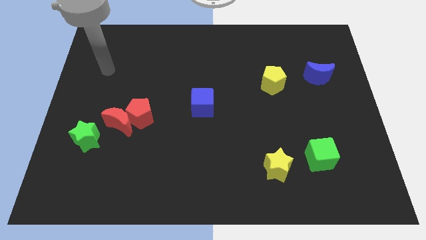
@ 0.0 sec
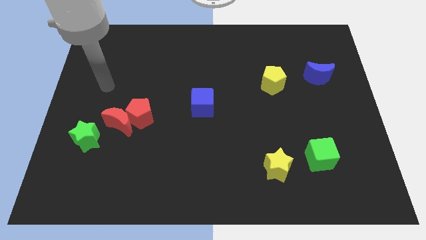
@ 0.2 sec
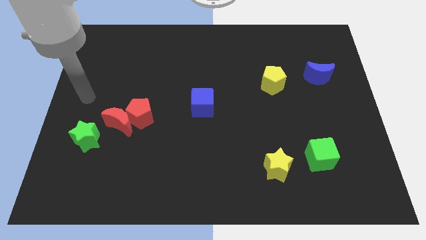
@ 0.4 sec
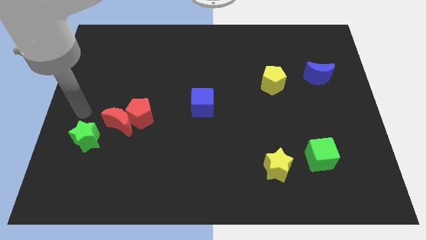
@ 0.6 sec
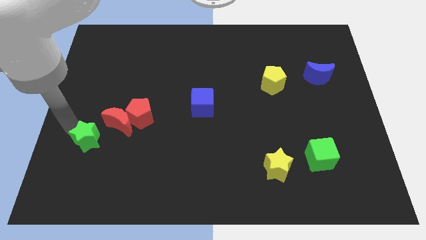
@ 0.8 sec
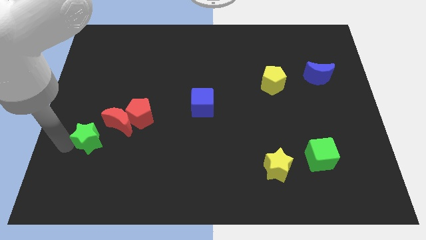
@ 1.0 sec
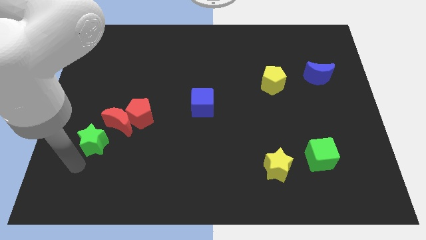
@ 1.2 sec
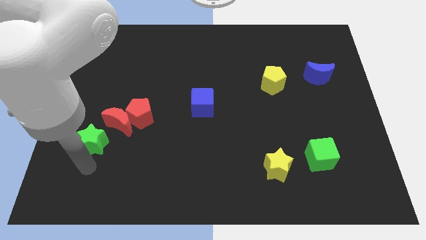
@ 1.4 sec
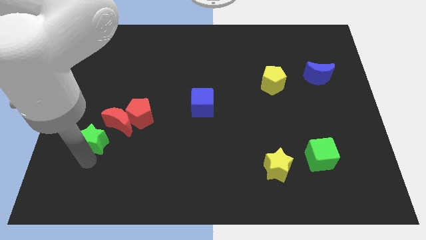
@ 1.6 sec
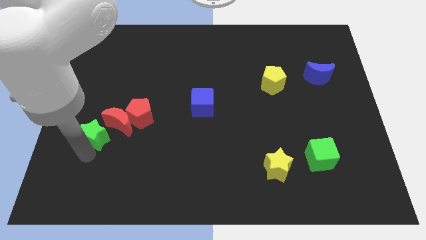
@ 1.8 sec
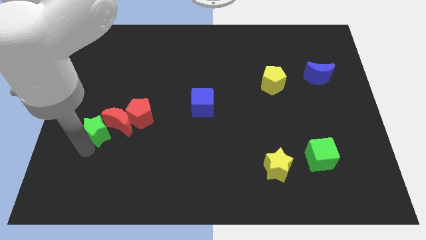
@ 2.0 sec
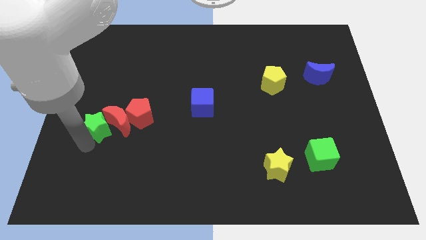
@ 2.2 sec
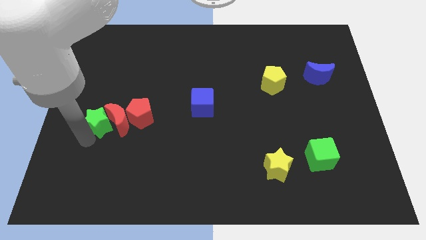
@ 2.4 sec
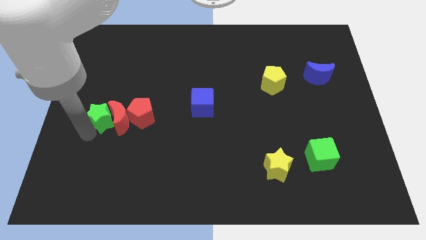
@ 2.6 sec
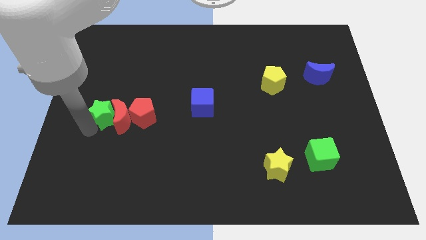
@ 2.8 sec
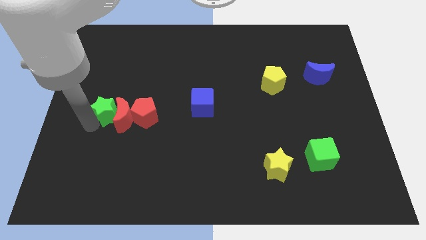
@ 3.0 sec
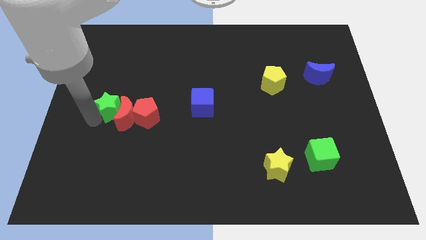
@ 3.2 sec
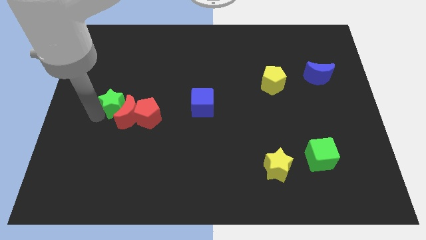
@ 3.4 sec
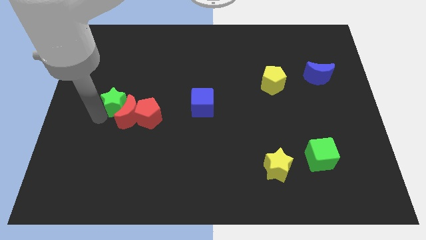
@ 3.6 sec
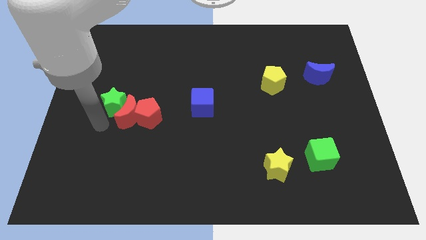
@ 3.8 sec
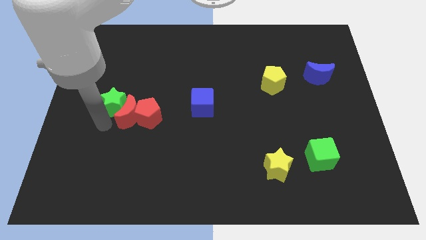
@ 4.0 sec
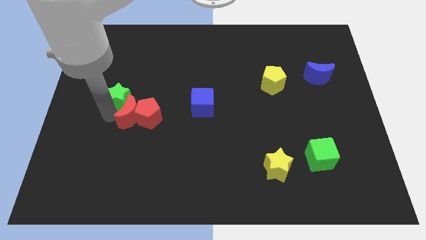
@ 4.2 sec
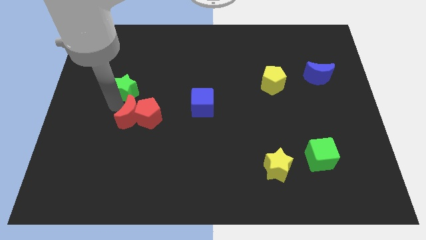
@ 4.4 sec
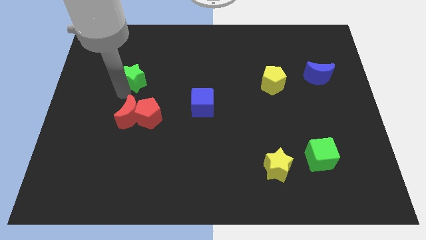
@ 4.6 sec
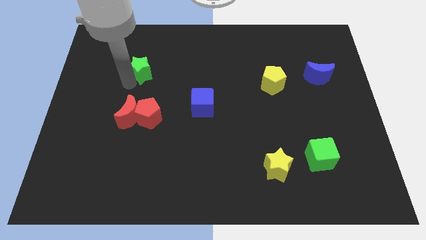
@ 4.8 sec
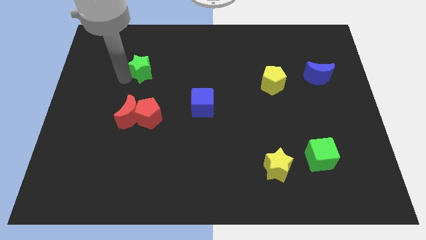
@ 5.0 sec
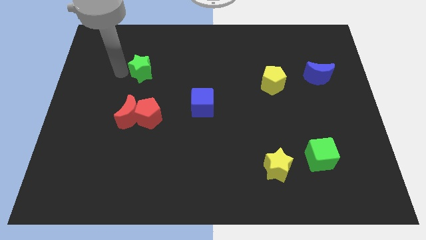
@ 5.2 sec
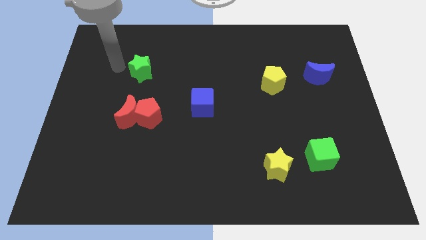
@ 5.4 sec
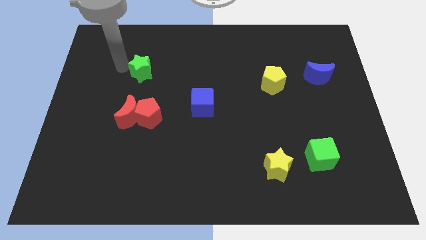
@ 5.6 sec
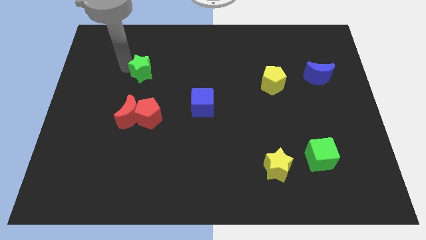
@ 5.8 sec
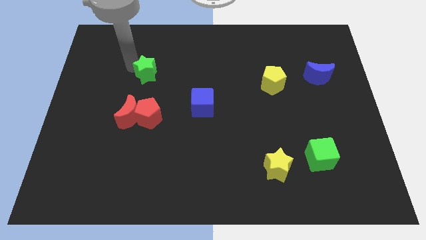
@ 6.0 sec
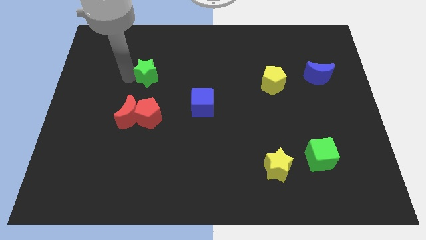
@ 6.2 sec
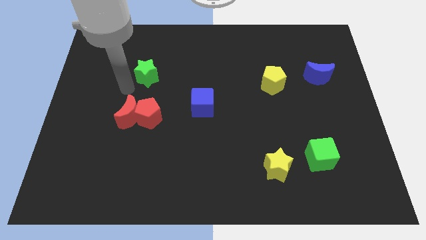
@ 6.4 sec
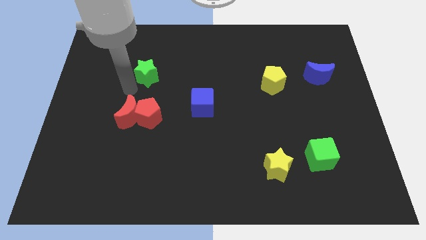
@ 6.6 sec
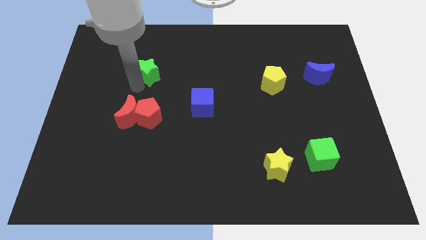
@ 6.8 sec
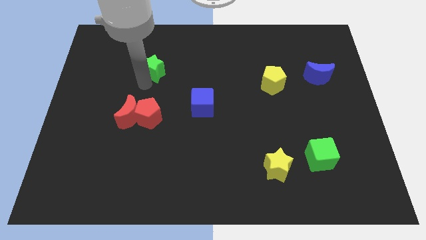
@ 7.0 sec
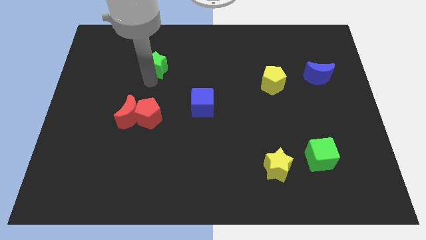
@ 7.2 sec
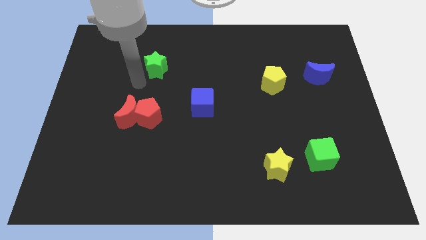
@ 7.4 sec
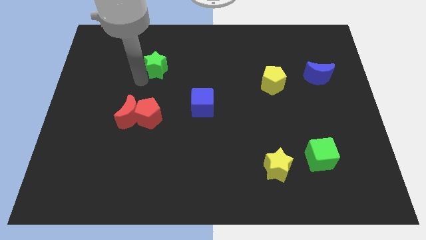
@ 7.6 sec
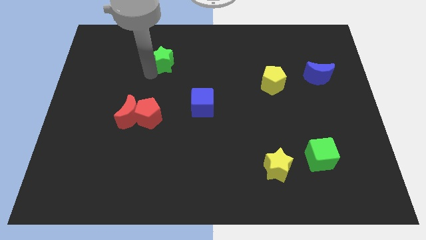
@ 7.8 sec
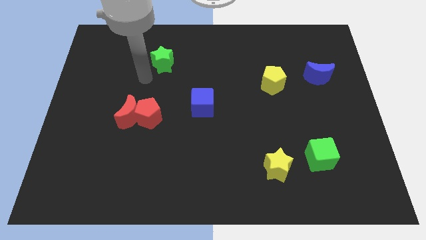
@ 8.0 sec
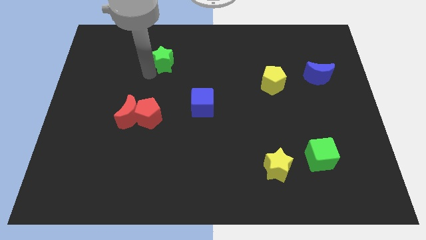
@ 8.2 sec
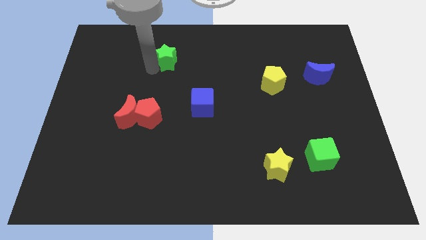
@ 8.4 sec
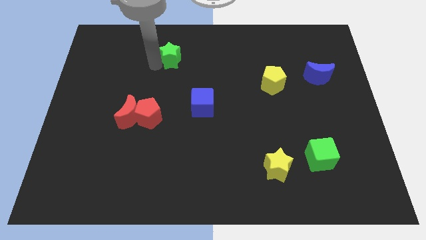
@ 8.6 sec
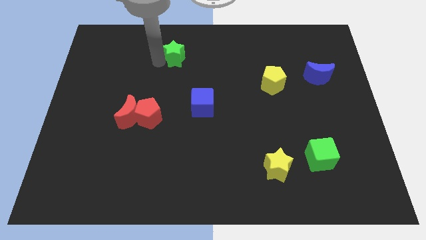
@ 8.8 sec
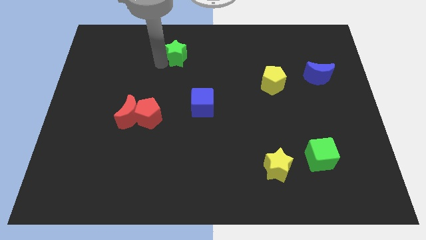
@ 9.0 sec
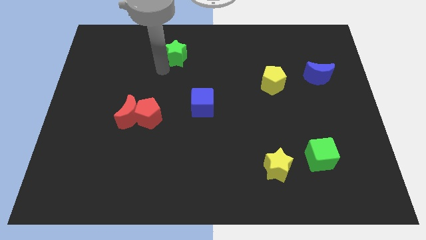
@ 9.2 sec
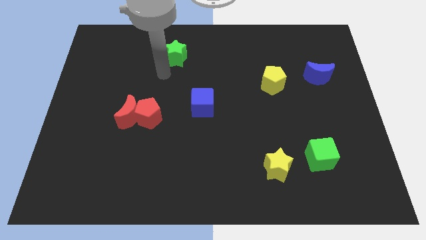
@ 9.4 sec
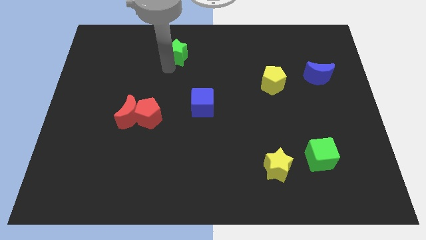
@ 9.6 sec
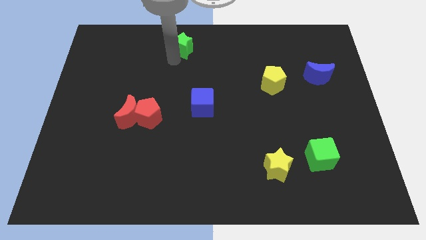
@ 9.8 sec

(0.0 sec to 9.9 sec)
put the green star to the top

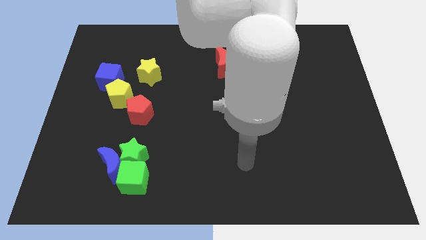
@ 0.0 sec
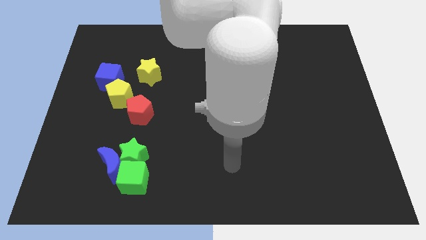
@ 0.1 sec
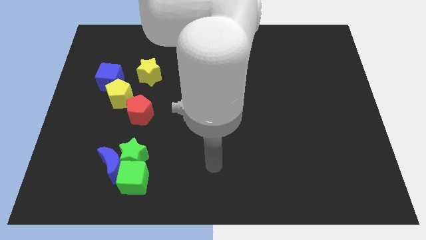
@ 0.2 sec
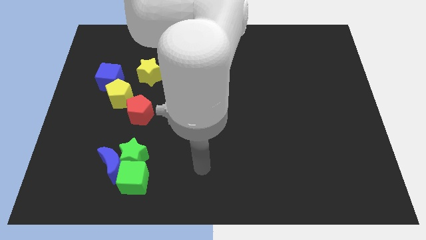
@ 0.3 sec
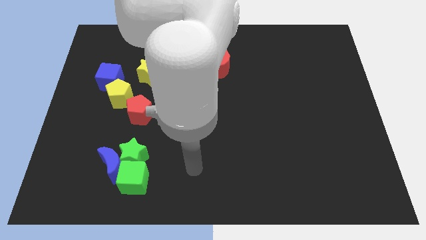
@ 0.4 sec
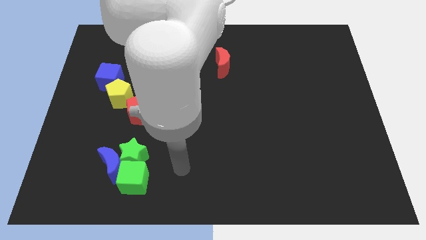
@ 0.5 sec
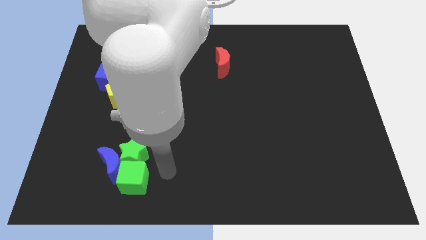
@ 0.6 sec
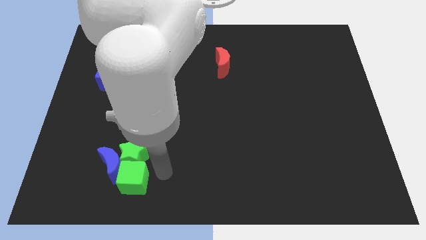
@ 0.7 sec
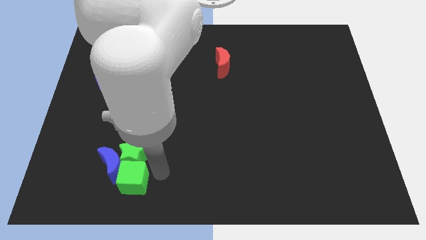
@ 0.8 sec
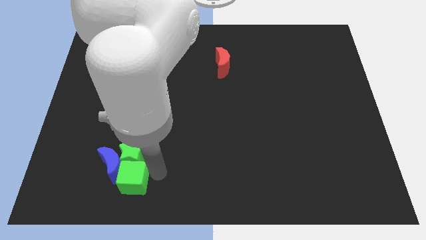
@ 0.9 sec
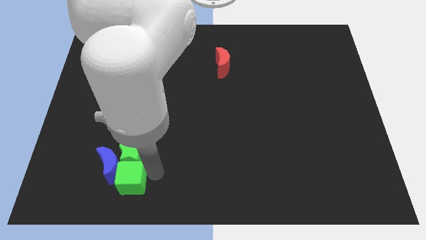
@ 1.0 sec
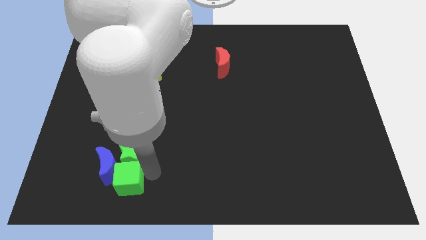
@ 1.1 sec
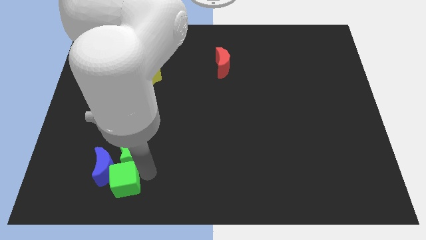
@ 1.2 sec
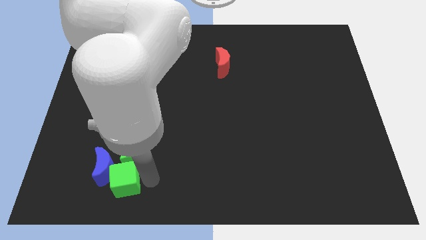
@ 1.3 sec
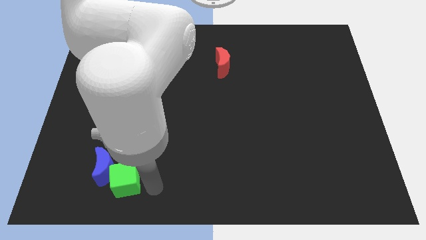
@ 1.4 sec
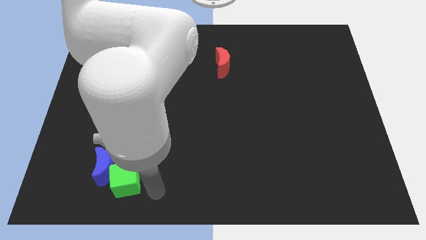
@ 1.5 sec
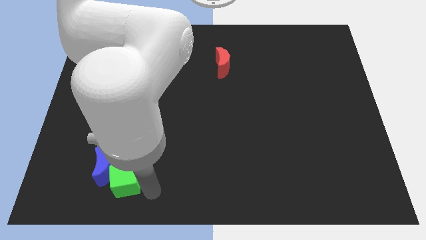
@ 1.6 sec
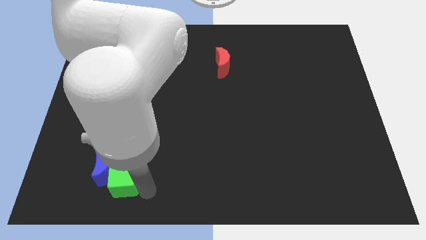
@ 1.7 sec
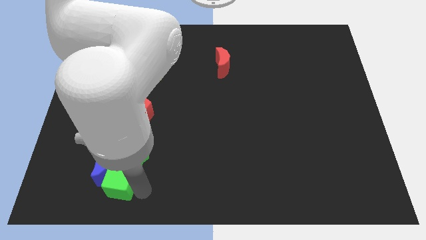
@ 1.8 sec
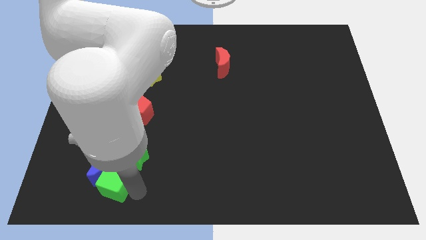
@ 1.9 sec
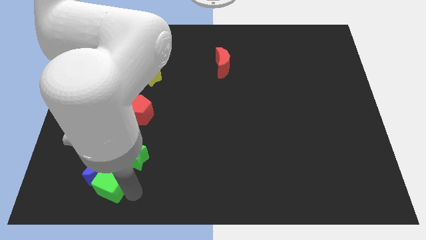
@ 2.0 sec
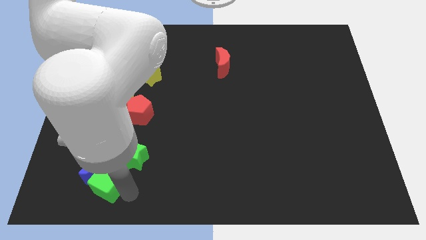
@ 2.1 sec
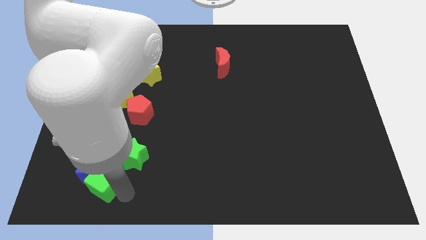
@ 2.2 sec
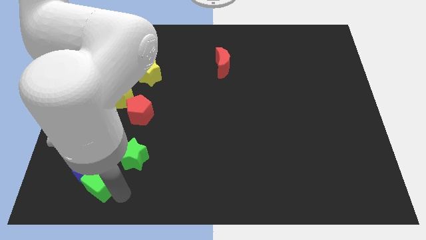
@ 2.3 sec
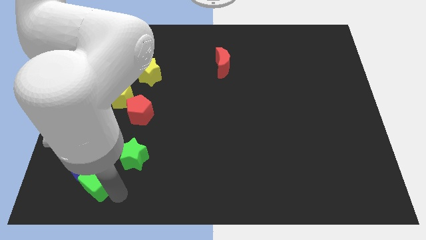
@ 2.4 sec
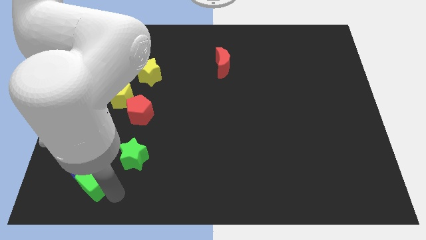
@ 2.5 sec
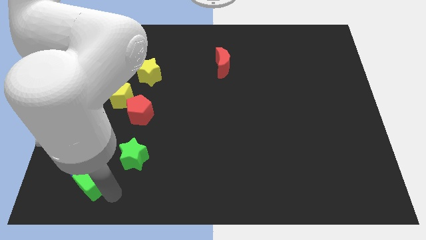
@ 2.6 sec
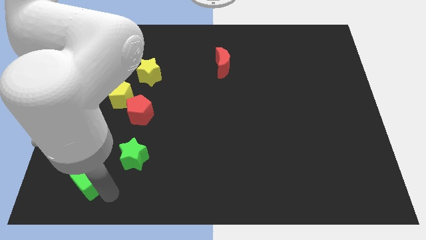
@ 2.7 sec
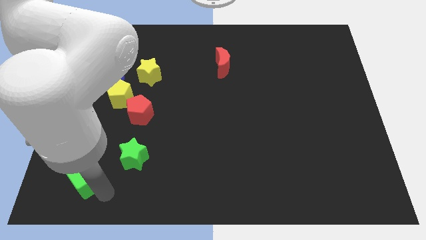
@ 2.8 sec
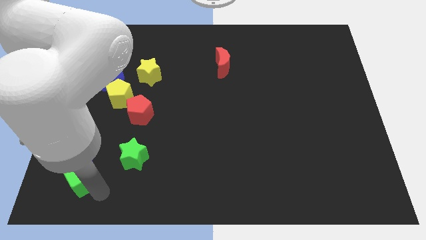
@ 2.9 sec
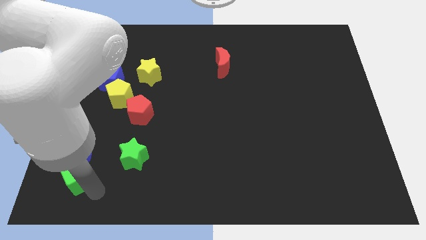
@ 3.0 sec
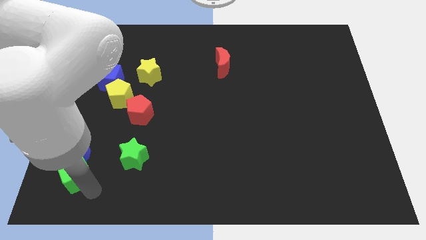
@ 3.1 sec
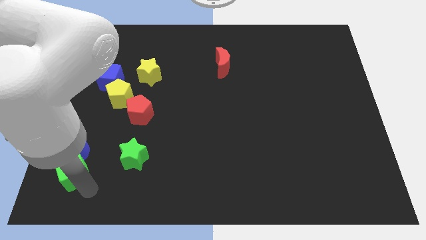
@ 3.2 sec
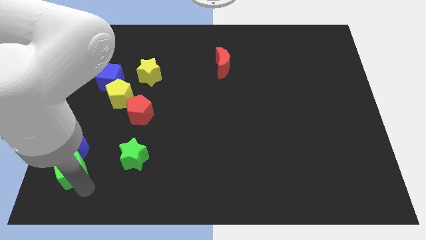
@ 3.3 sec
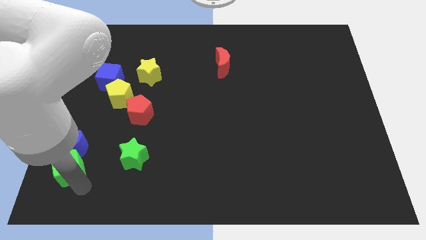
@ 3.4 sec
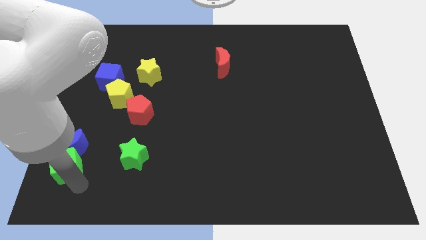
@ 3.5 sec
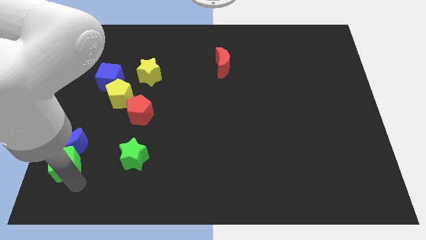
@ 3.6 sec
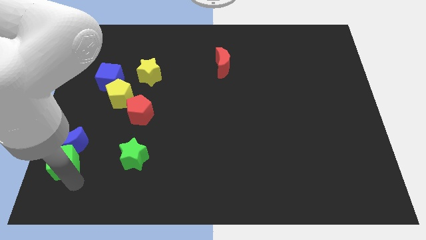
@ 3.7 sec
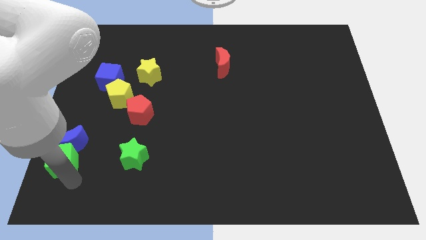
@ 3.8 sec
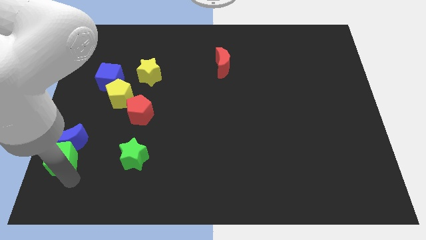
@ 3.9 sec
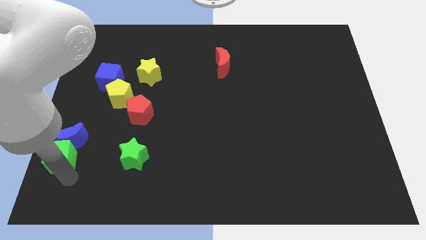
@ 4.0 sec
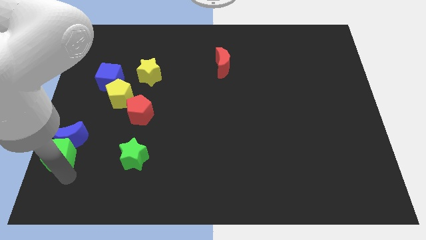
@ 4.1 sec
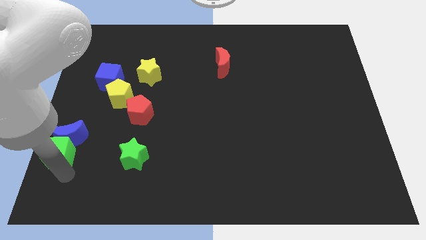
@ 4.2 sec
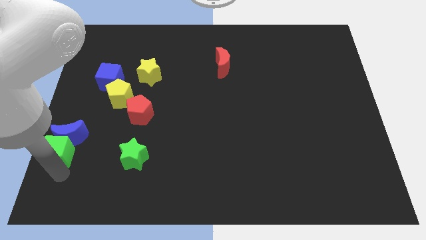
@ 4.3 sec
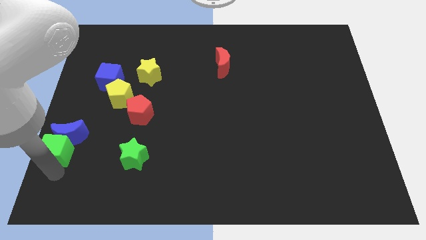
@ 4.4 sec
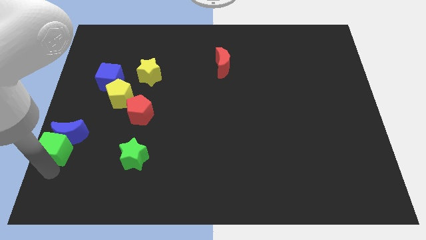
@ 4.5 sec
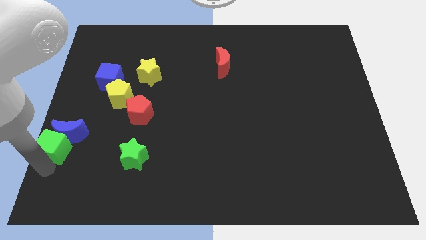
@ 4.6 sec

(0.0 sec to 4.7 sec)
slide the green cube to the left side of the board
